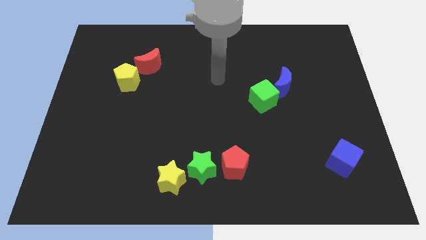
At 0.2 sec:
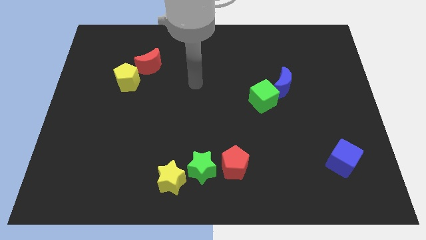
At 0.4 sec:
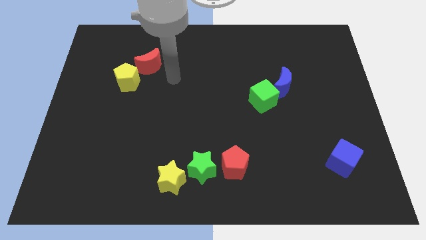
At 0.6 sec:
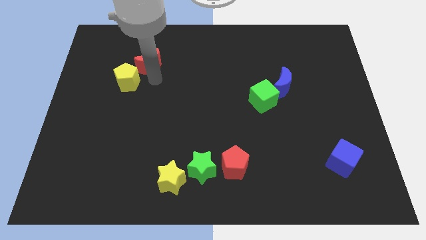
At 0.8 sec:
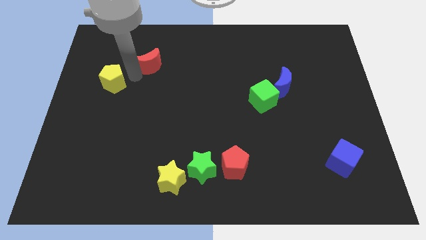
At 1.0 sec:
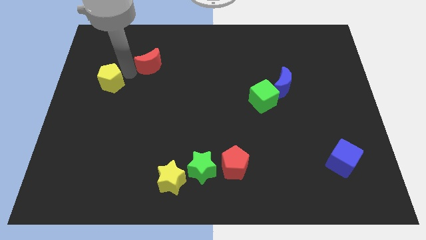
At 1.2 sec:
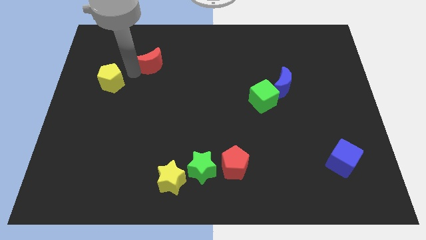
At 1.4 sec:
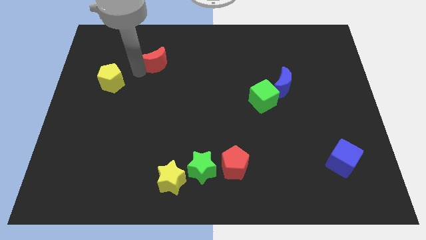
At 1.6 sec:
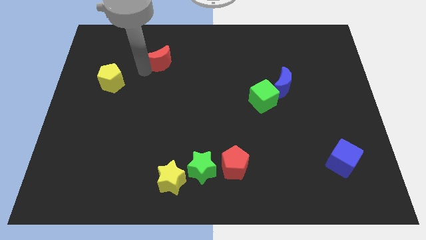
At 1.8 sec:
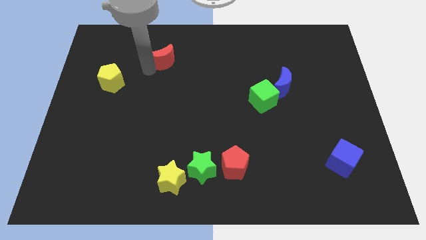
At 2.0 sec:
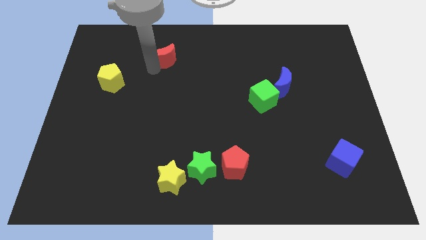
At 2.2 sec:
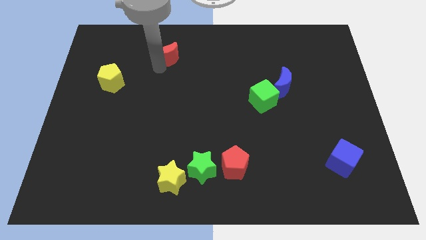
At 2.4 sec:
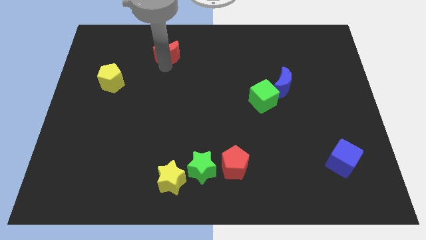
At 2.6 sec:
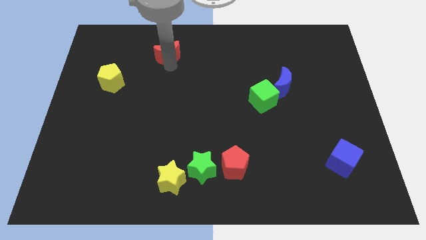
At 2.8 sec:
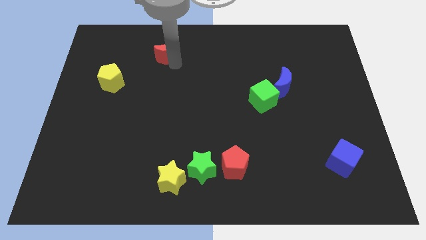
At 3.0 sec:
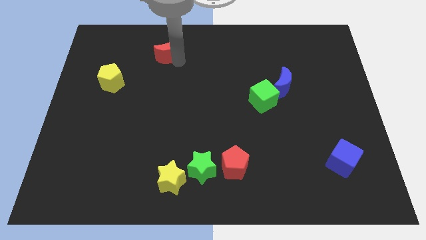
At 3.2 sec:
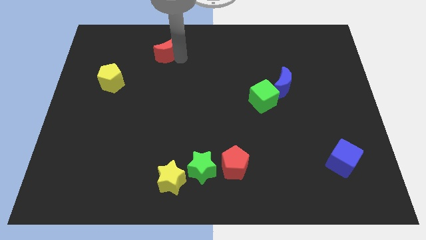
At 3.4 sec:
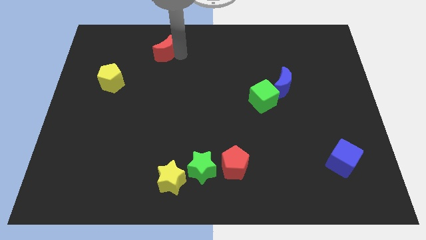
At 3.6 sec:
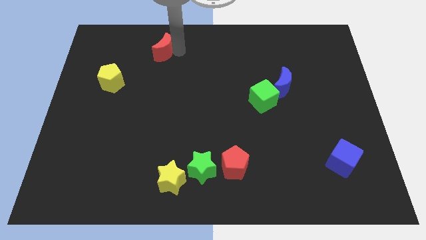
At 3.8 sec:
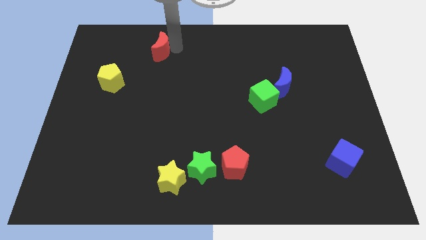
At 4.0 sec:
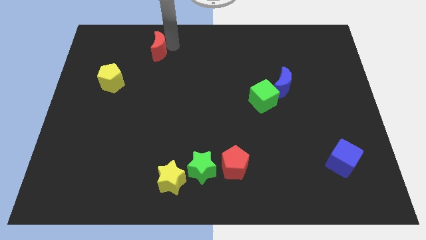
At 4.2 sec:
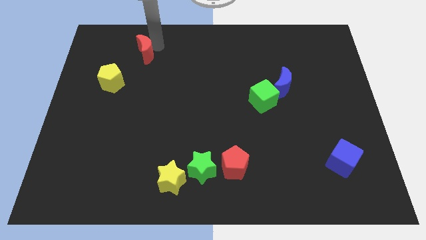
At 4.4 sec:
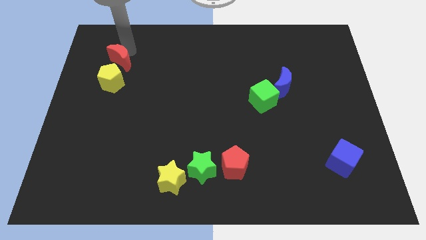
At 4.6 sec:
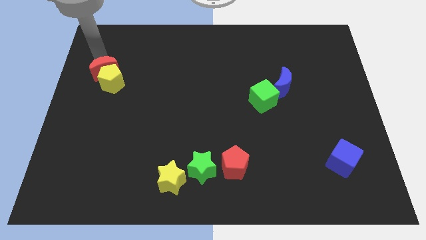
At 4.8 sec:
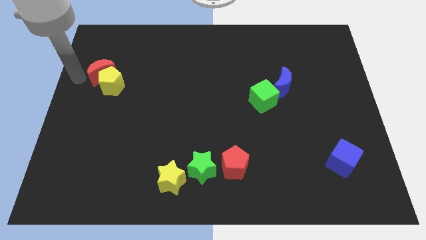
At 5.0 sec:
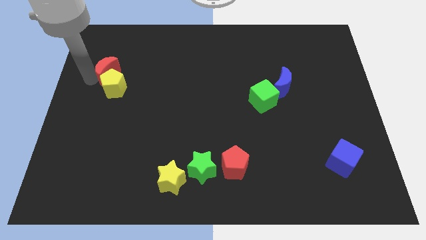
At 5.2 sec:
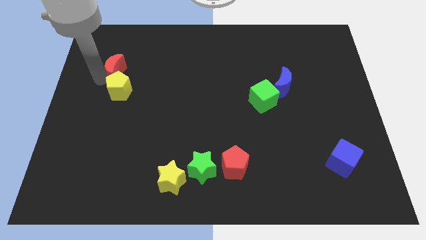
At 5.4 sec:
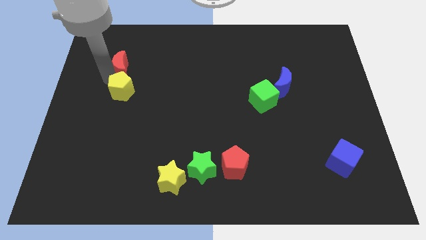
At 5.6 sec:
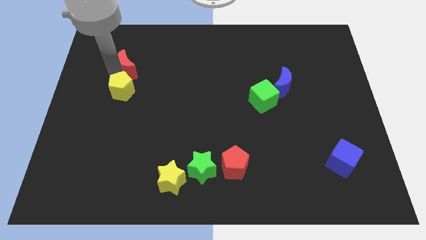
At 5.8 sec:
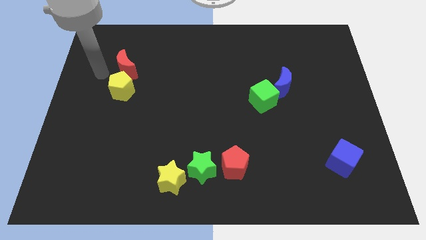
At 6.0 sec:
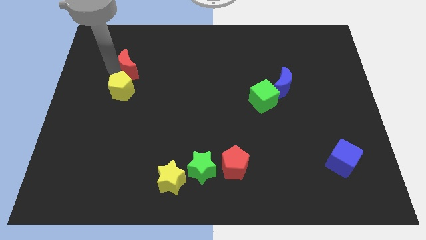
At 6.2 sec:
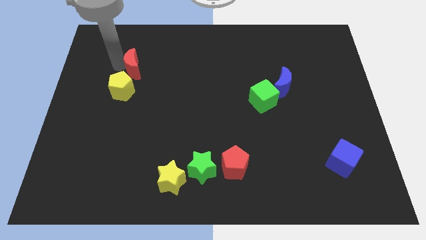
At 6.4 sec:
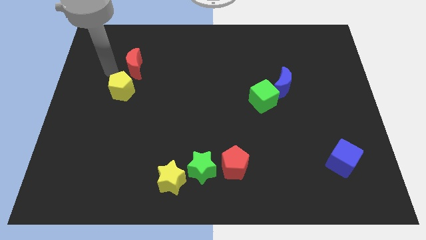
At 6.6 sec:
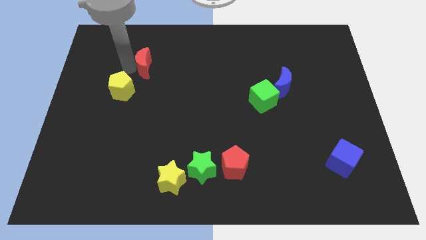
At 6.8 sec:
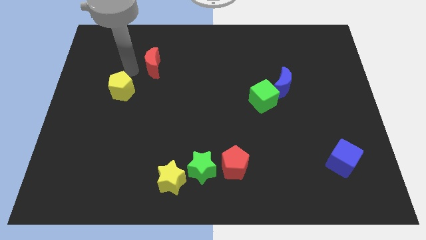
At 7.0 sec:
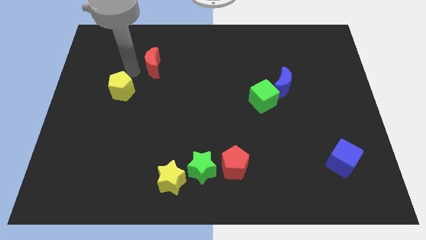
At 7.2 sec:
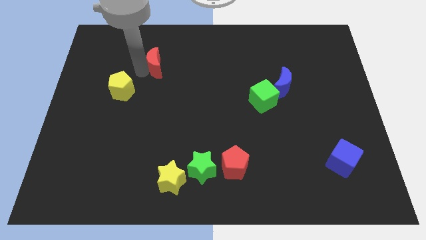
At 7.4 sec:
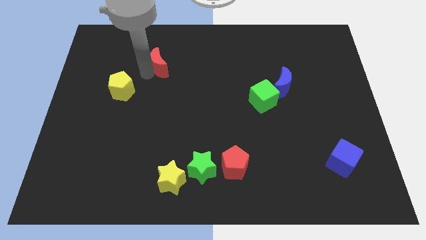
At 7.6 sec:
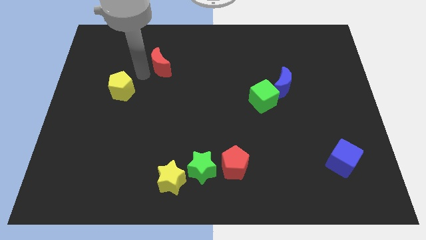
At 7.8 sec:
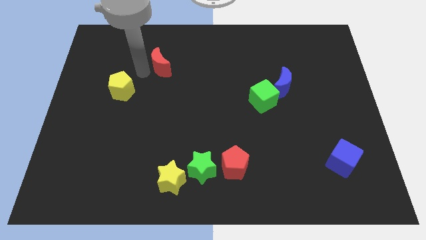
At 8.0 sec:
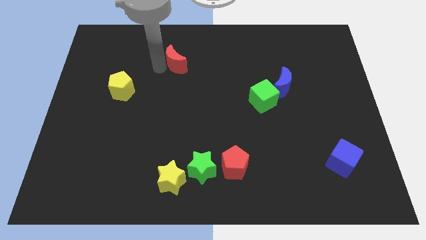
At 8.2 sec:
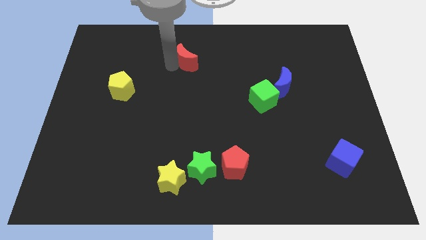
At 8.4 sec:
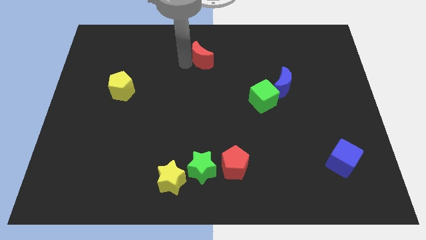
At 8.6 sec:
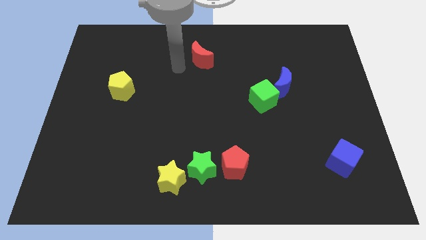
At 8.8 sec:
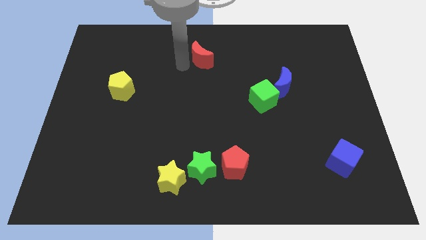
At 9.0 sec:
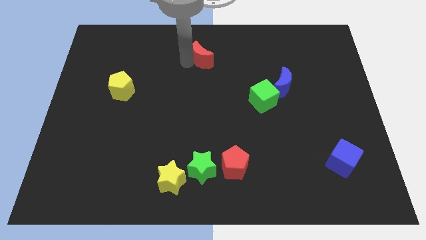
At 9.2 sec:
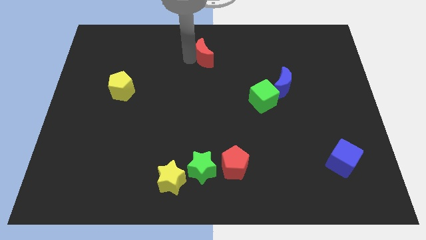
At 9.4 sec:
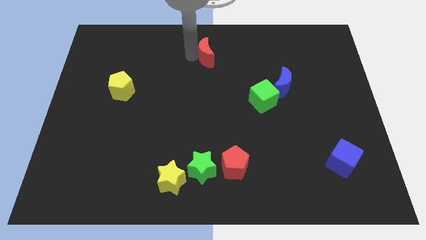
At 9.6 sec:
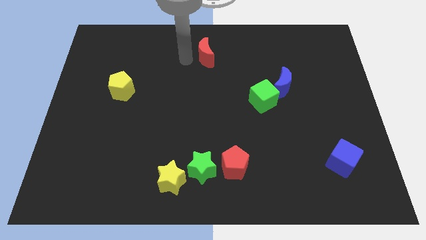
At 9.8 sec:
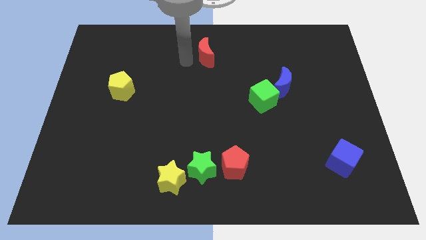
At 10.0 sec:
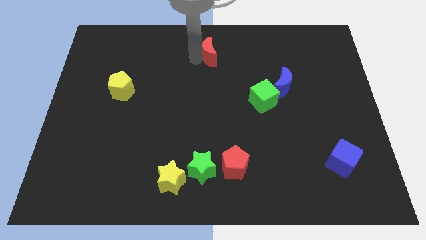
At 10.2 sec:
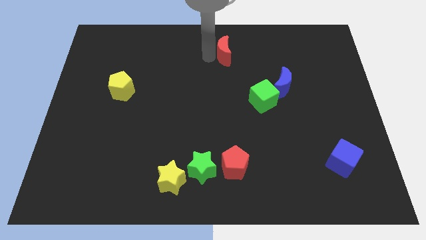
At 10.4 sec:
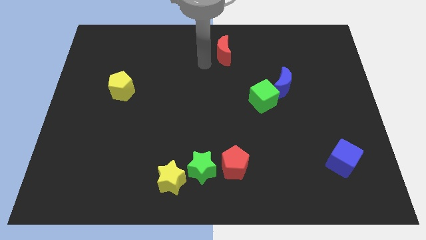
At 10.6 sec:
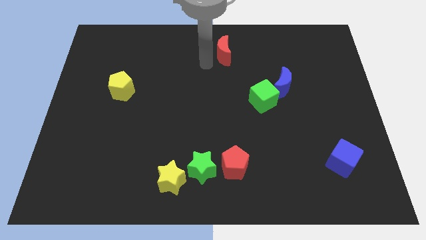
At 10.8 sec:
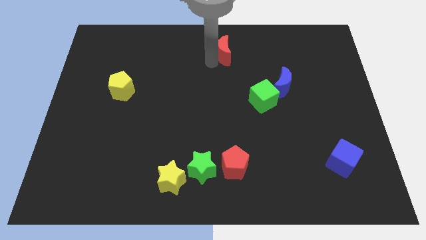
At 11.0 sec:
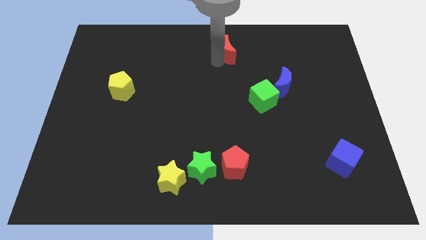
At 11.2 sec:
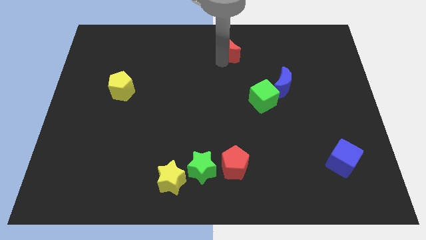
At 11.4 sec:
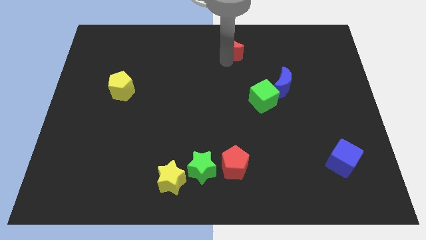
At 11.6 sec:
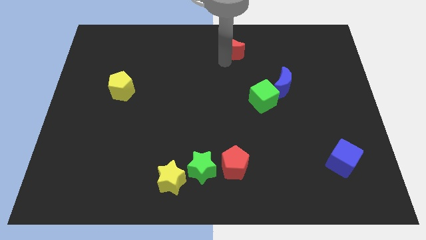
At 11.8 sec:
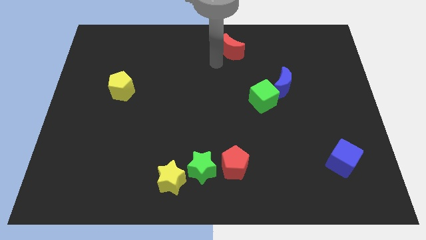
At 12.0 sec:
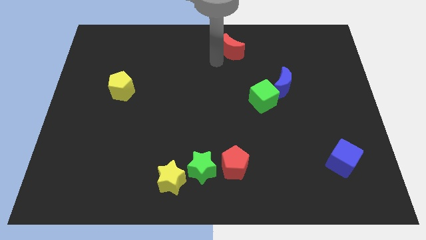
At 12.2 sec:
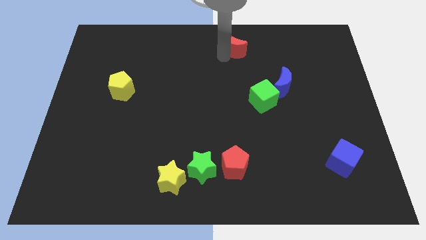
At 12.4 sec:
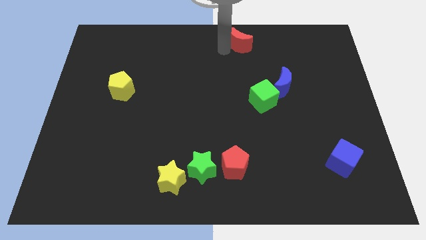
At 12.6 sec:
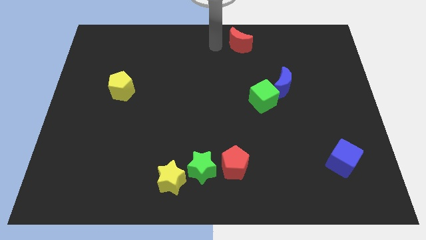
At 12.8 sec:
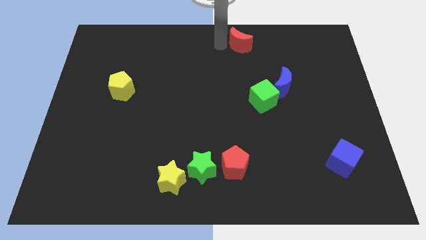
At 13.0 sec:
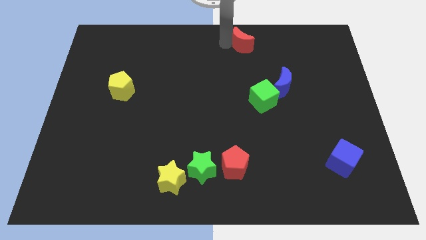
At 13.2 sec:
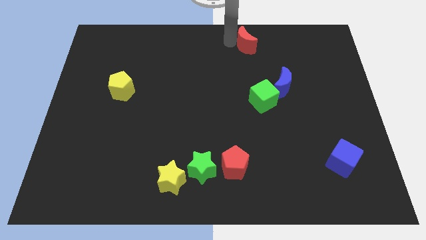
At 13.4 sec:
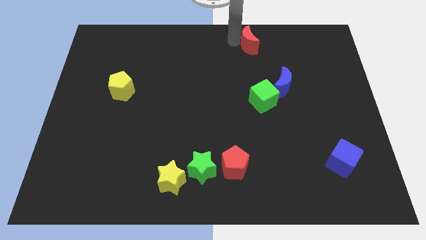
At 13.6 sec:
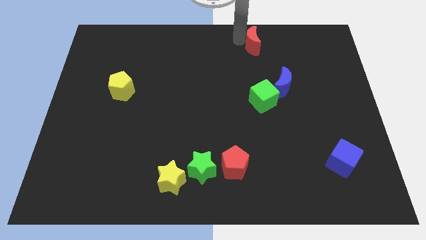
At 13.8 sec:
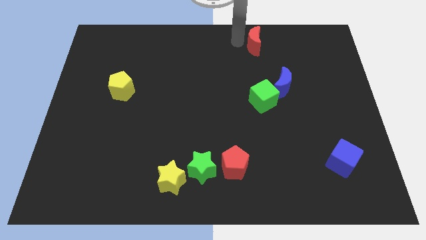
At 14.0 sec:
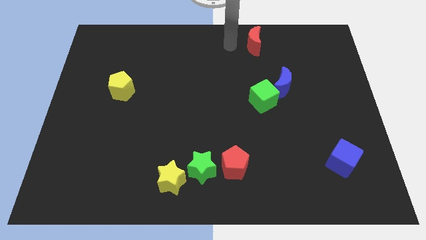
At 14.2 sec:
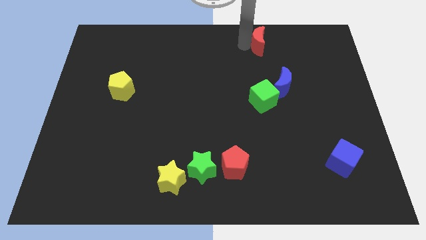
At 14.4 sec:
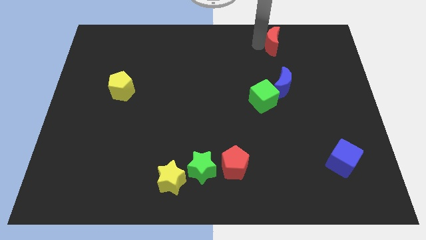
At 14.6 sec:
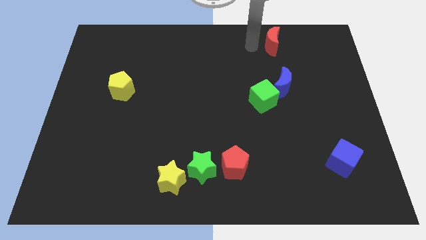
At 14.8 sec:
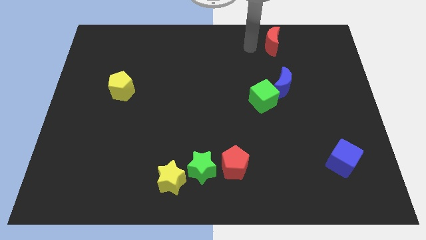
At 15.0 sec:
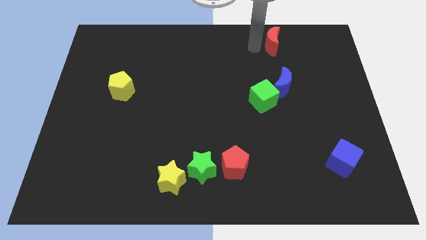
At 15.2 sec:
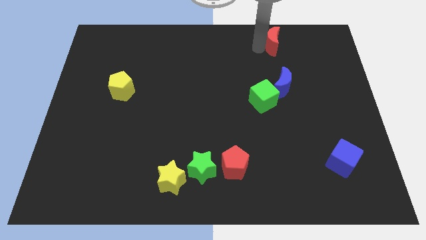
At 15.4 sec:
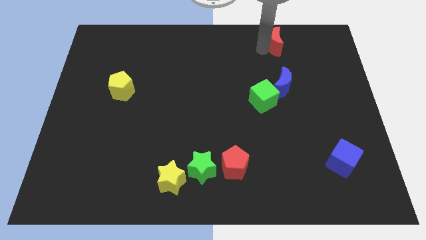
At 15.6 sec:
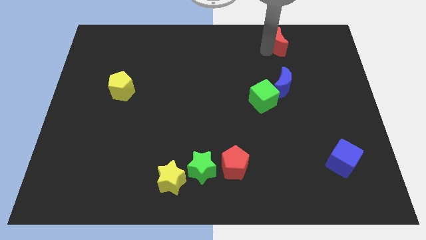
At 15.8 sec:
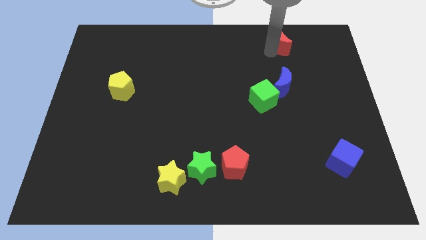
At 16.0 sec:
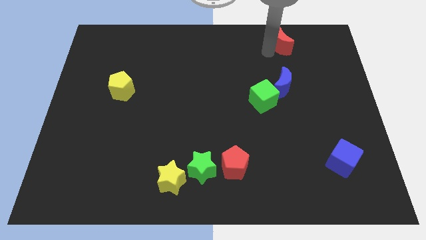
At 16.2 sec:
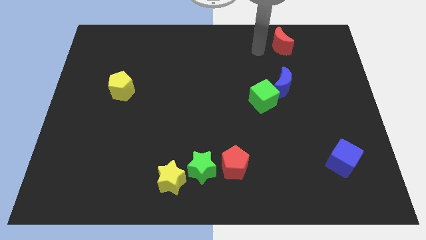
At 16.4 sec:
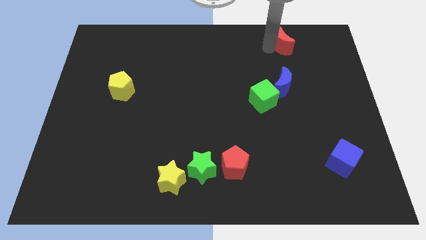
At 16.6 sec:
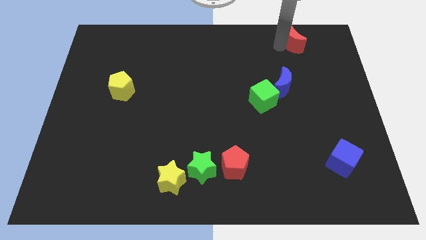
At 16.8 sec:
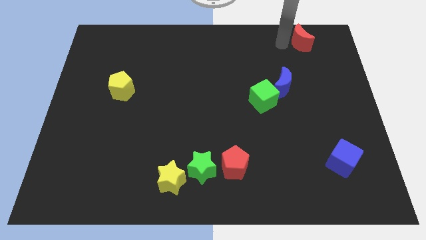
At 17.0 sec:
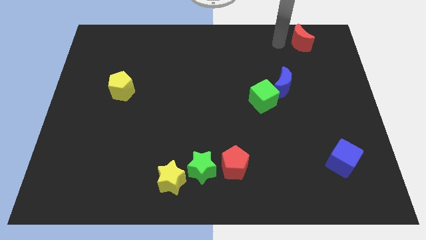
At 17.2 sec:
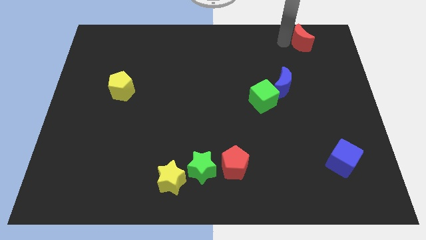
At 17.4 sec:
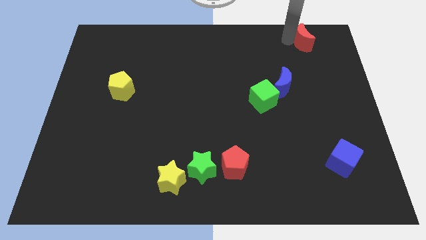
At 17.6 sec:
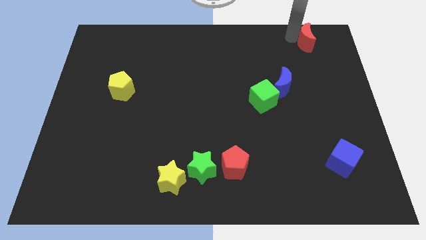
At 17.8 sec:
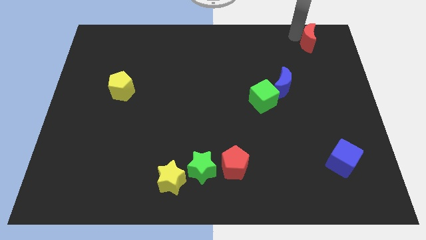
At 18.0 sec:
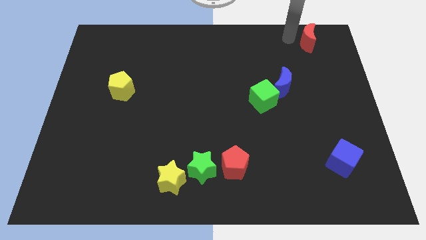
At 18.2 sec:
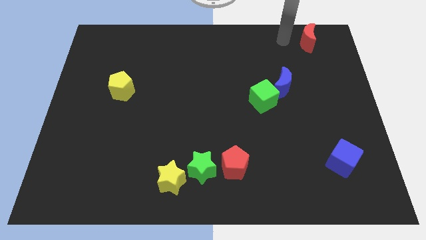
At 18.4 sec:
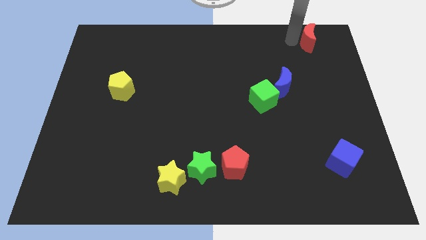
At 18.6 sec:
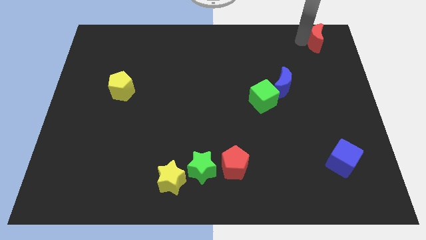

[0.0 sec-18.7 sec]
push the red moon to the upper right corner
